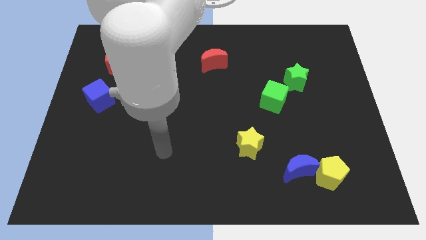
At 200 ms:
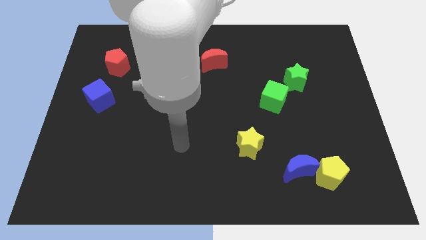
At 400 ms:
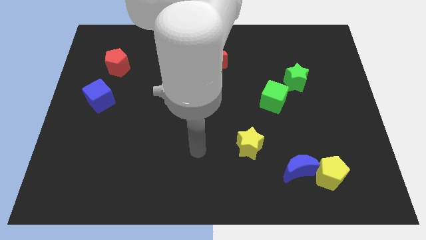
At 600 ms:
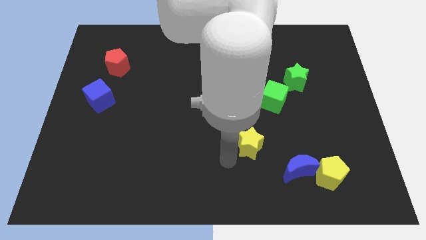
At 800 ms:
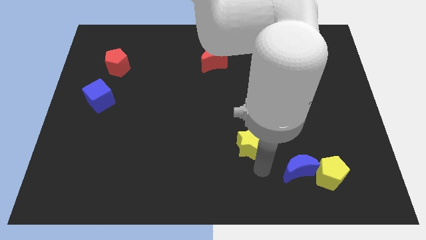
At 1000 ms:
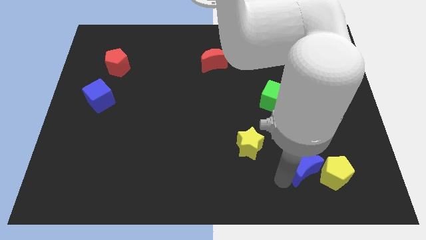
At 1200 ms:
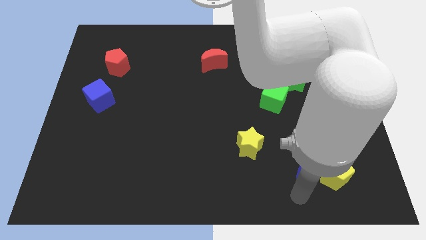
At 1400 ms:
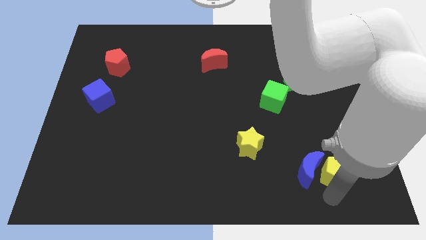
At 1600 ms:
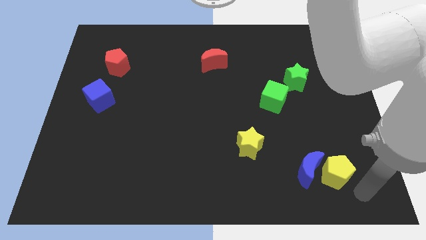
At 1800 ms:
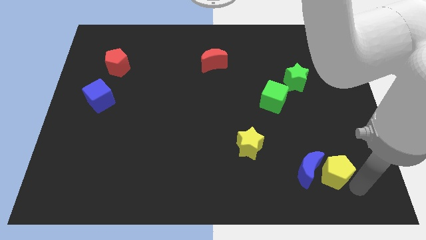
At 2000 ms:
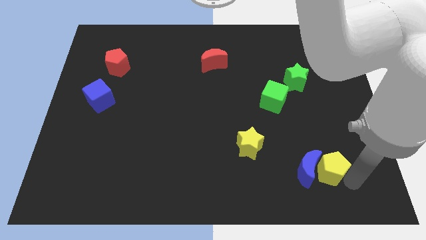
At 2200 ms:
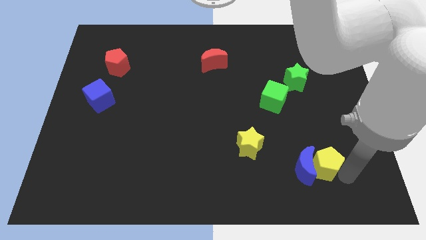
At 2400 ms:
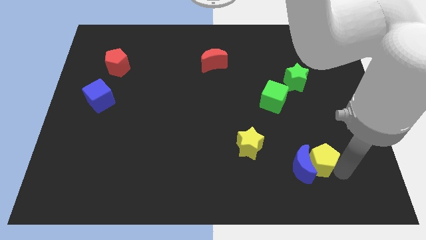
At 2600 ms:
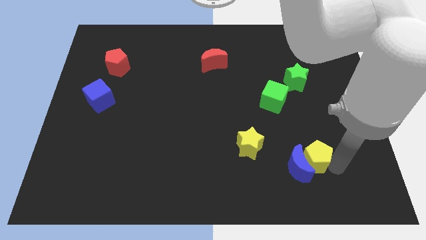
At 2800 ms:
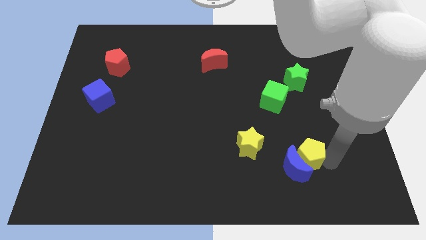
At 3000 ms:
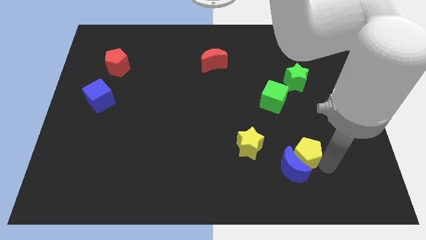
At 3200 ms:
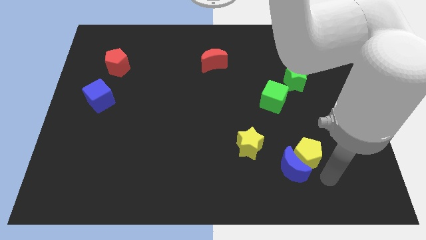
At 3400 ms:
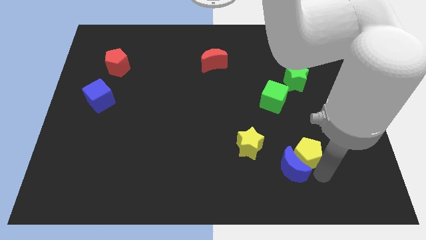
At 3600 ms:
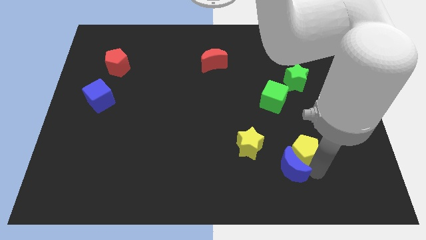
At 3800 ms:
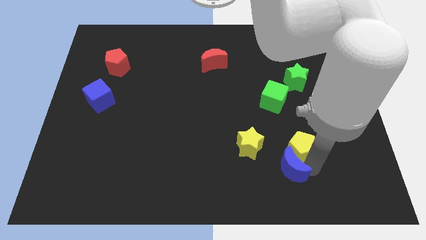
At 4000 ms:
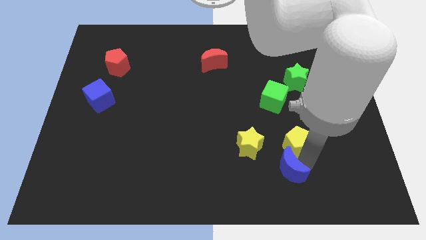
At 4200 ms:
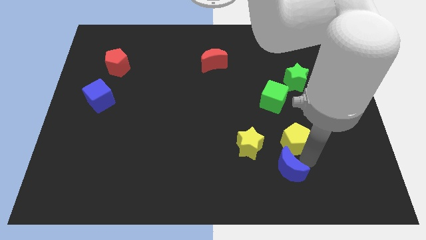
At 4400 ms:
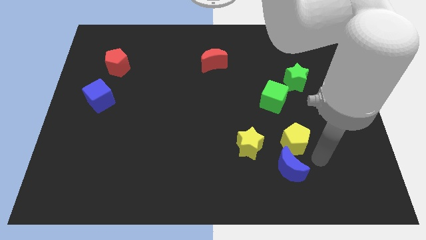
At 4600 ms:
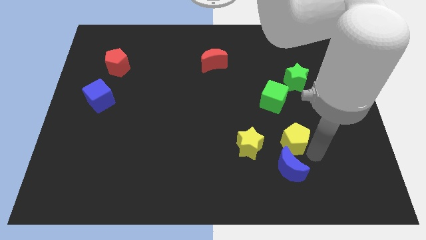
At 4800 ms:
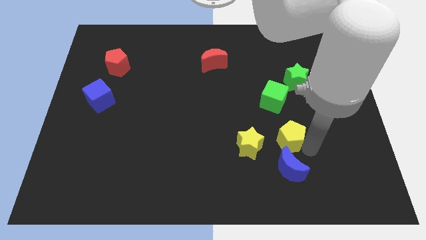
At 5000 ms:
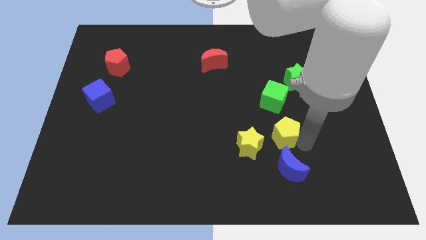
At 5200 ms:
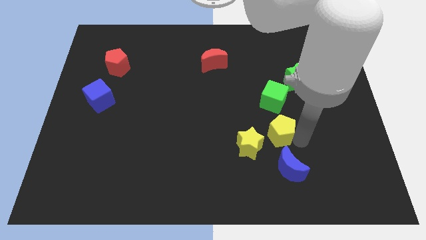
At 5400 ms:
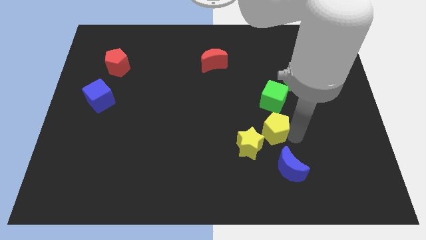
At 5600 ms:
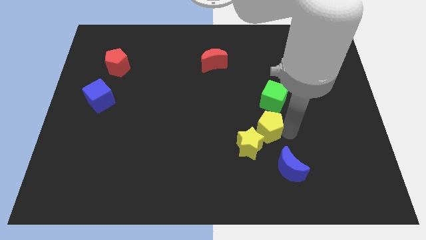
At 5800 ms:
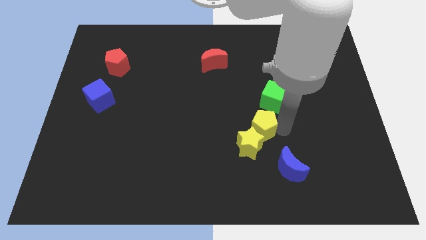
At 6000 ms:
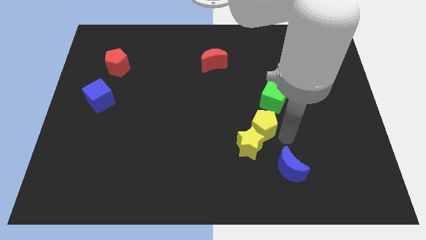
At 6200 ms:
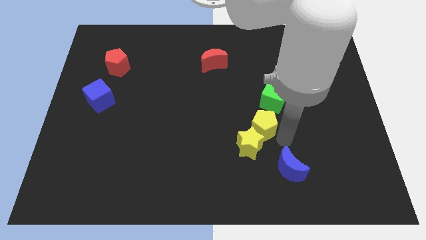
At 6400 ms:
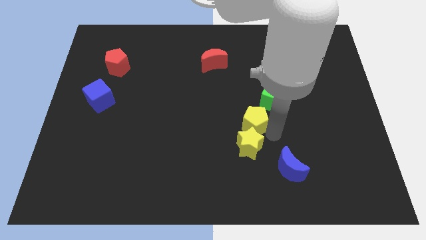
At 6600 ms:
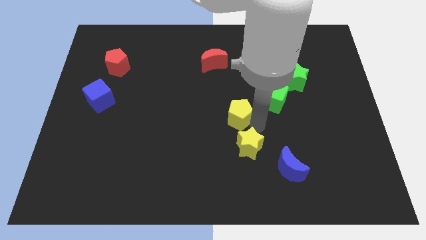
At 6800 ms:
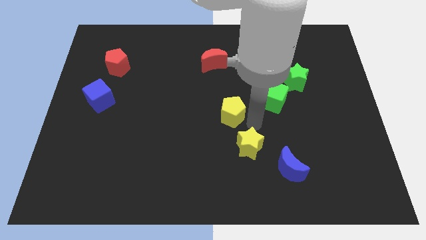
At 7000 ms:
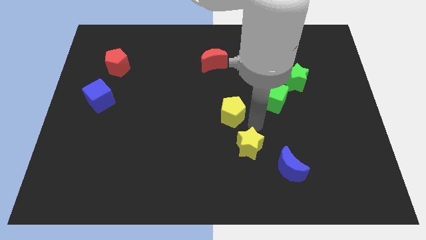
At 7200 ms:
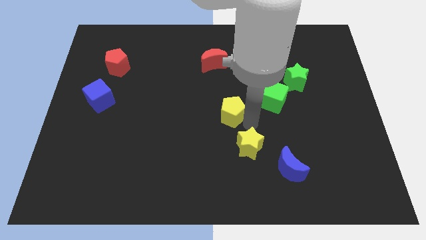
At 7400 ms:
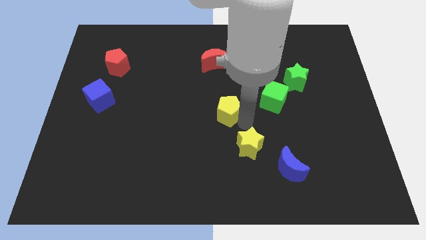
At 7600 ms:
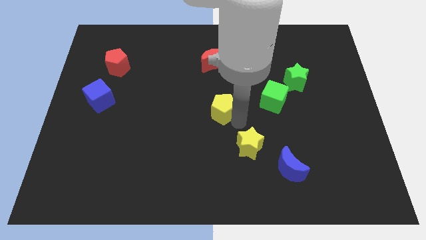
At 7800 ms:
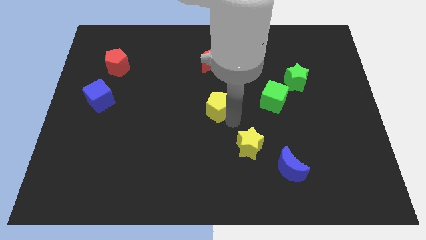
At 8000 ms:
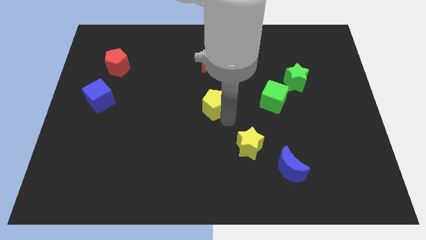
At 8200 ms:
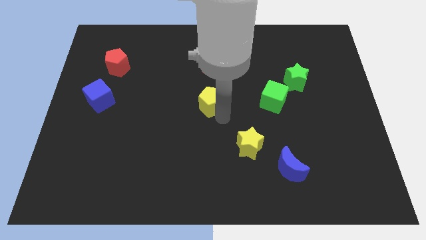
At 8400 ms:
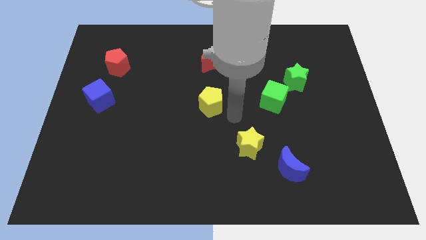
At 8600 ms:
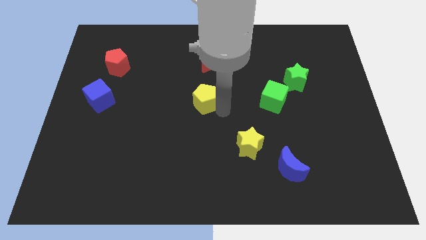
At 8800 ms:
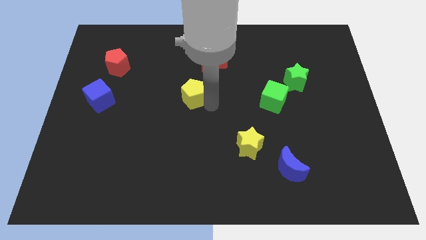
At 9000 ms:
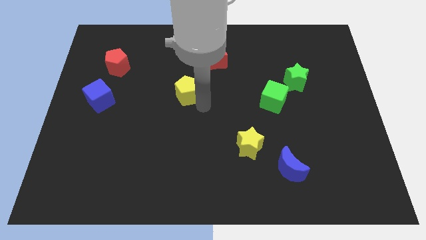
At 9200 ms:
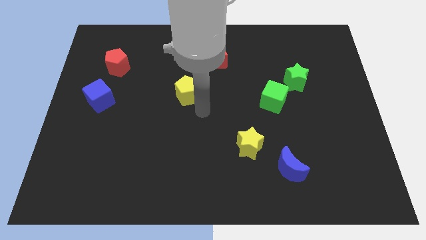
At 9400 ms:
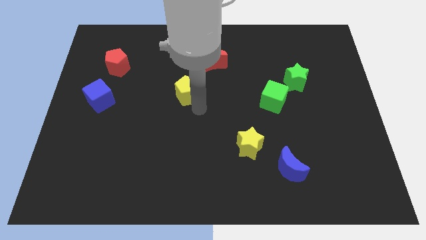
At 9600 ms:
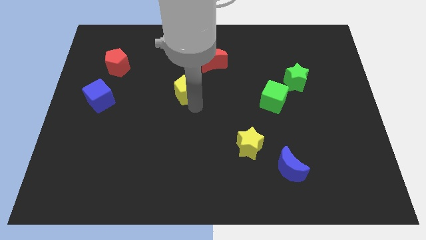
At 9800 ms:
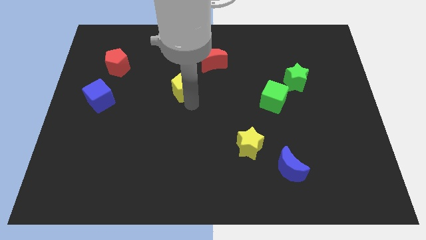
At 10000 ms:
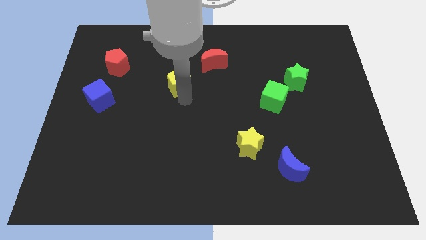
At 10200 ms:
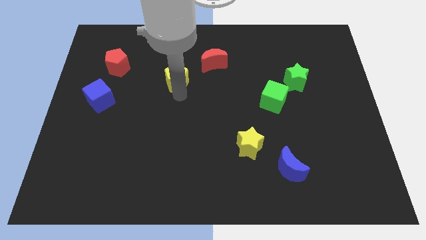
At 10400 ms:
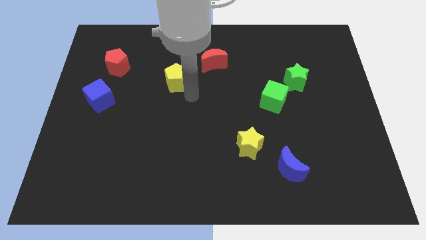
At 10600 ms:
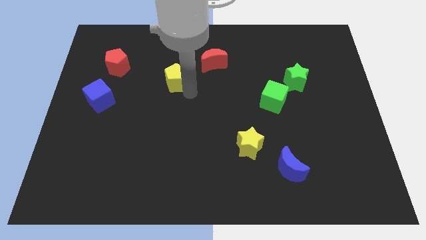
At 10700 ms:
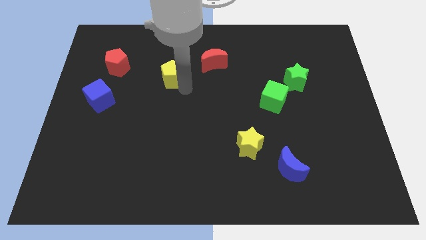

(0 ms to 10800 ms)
move the yellow pentagon to the right side of the red pentagon

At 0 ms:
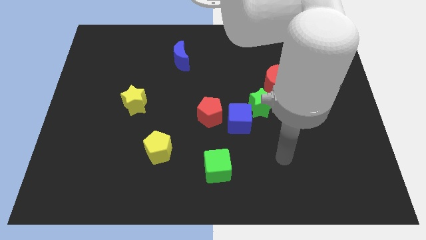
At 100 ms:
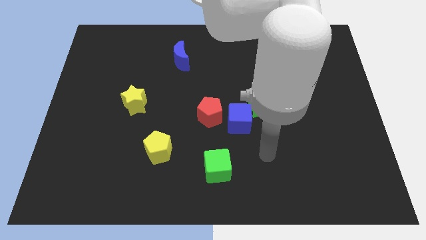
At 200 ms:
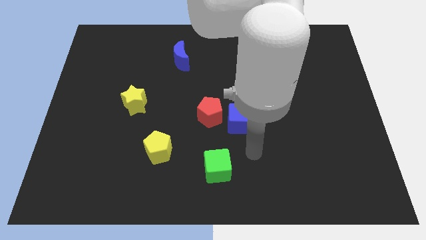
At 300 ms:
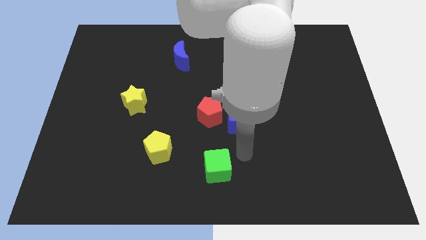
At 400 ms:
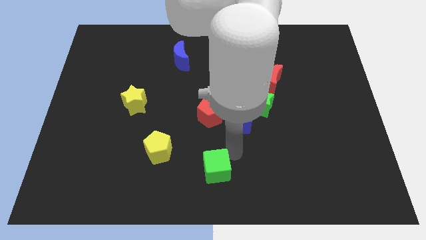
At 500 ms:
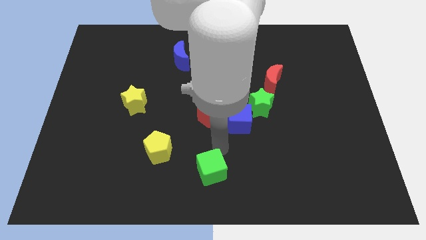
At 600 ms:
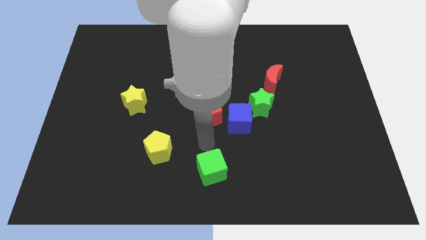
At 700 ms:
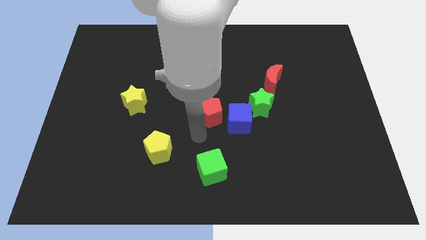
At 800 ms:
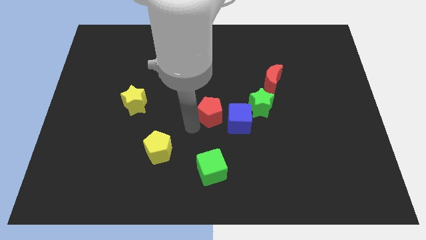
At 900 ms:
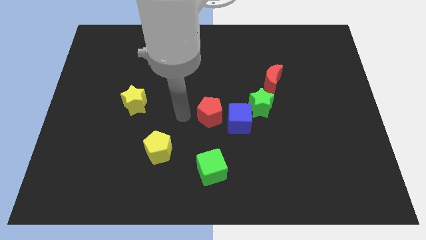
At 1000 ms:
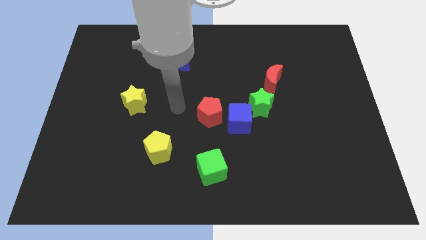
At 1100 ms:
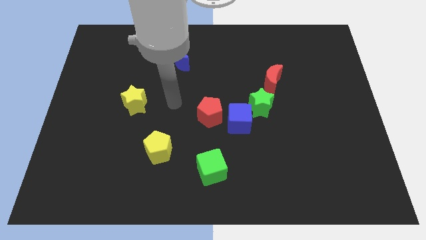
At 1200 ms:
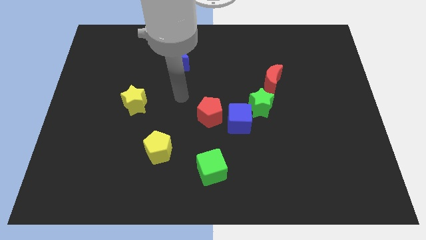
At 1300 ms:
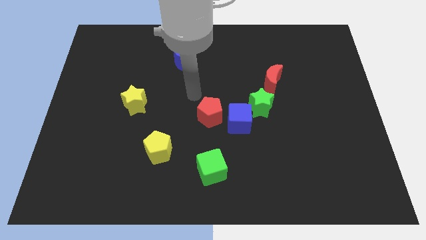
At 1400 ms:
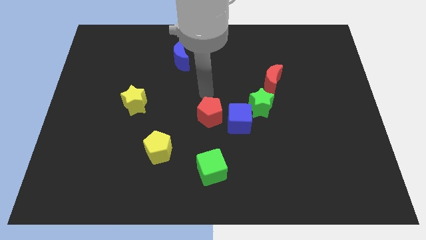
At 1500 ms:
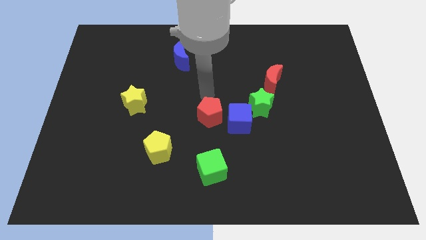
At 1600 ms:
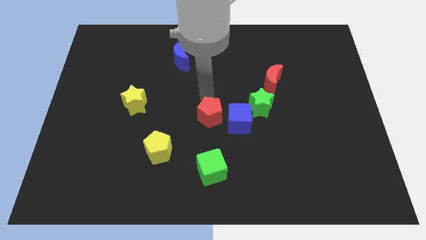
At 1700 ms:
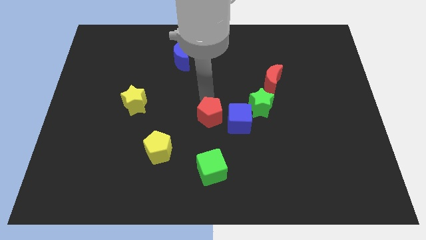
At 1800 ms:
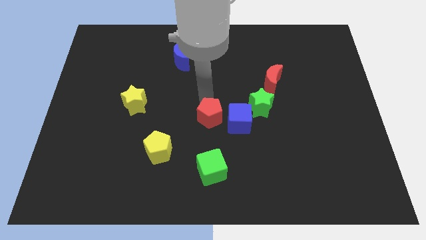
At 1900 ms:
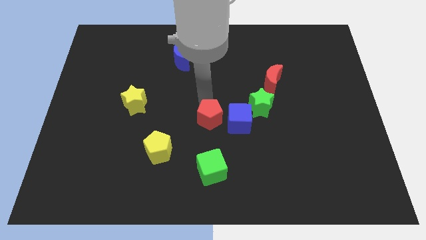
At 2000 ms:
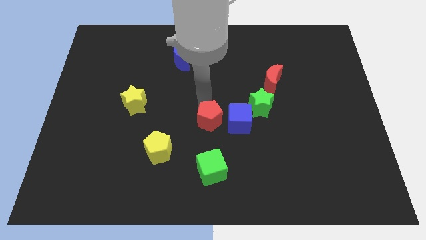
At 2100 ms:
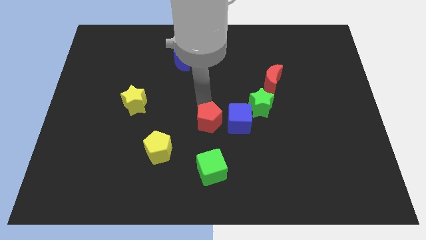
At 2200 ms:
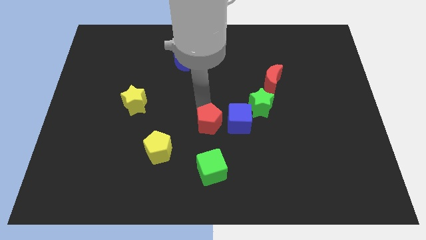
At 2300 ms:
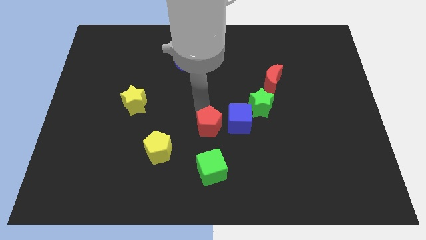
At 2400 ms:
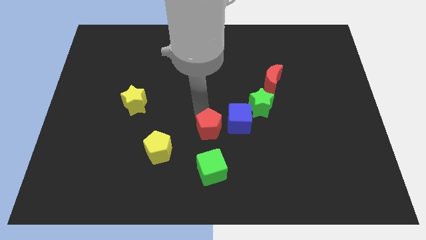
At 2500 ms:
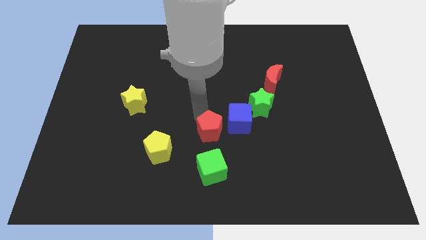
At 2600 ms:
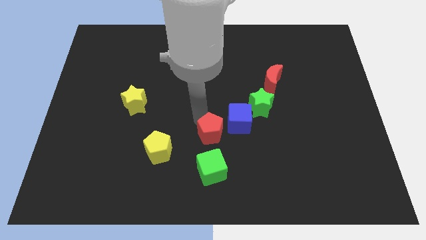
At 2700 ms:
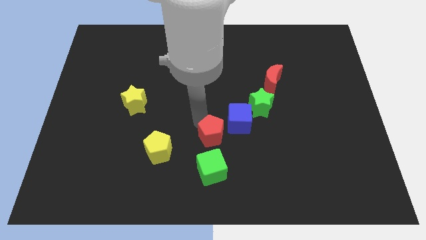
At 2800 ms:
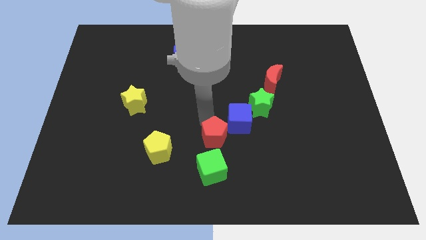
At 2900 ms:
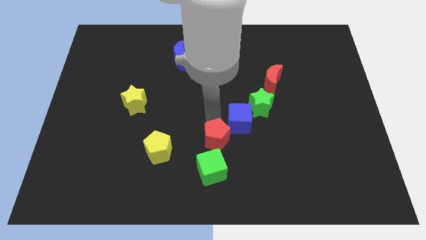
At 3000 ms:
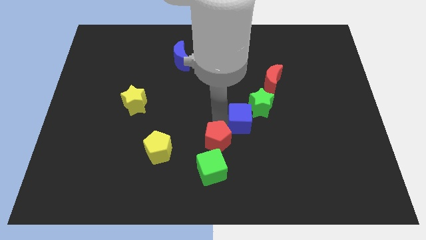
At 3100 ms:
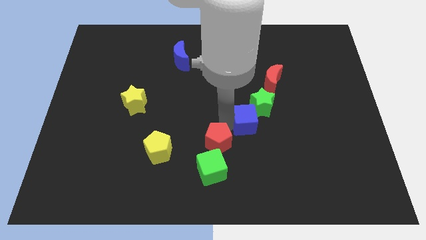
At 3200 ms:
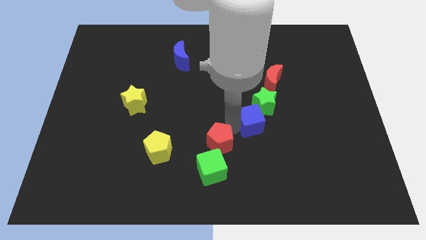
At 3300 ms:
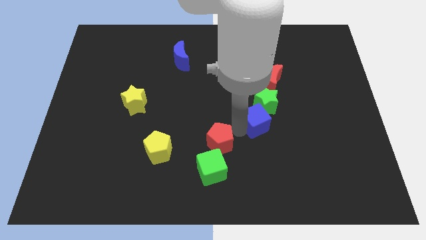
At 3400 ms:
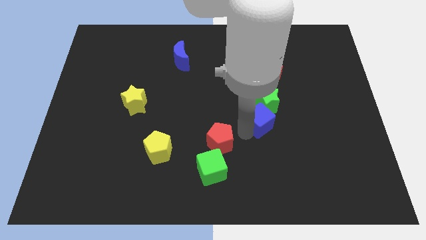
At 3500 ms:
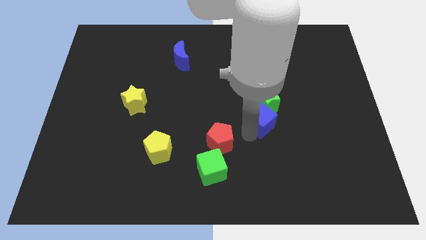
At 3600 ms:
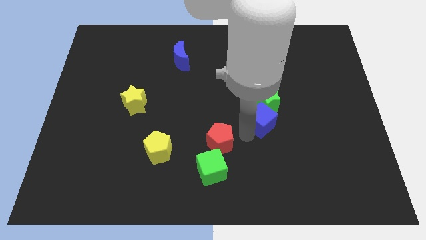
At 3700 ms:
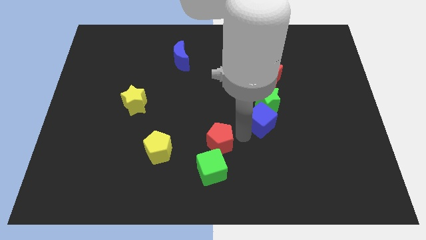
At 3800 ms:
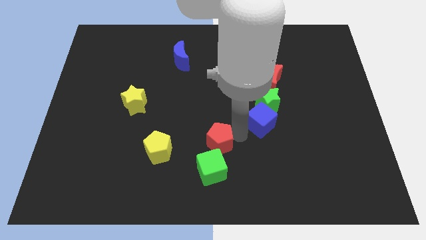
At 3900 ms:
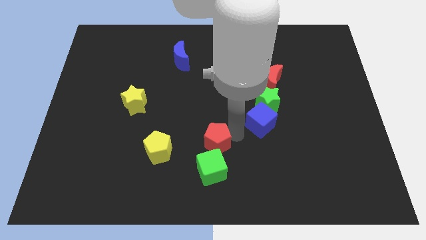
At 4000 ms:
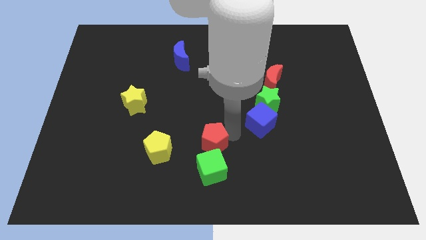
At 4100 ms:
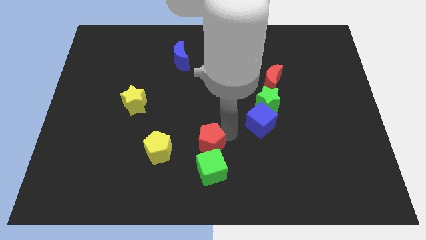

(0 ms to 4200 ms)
put the red pentagon to the top left of the green cube
